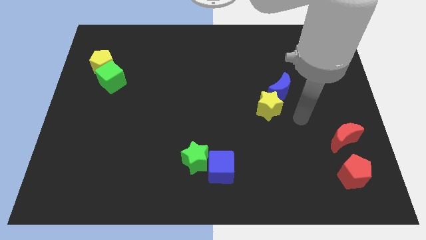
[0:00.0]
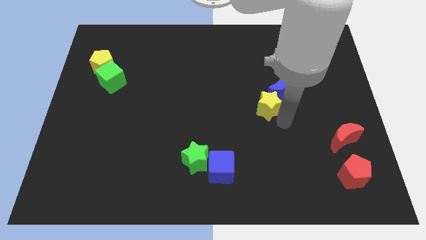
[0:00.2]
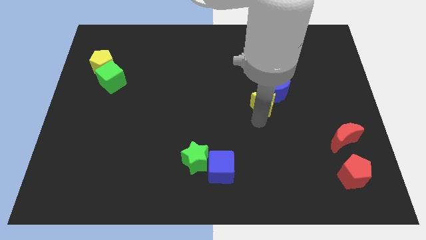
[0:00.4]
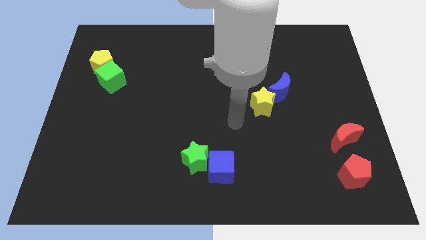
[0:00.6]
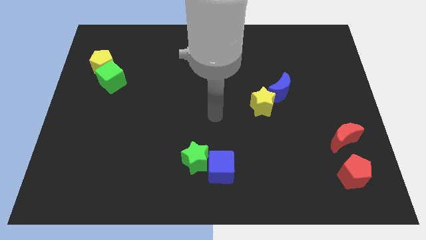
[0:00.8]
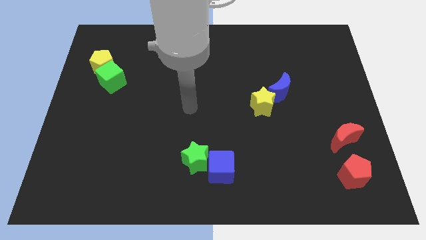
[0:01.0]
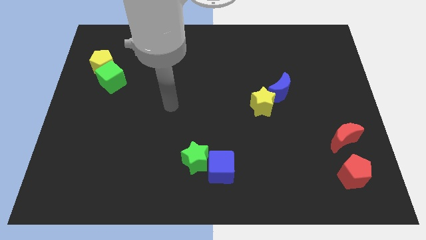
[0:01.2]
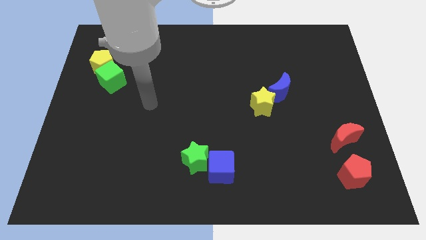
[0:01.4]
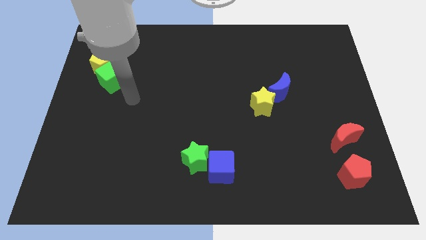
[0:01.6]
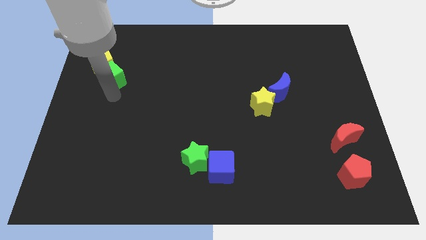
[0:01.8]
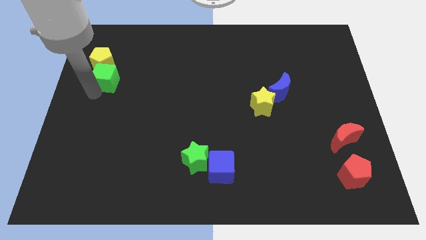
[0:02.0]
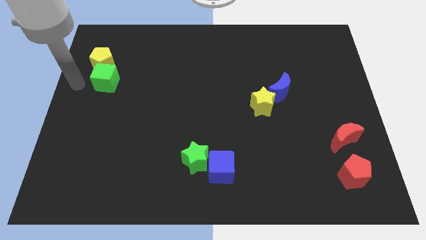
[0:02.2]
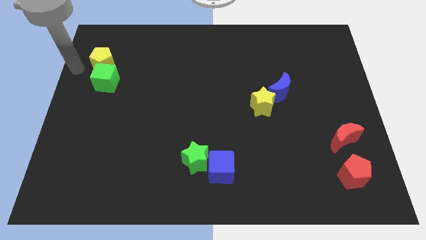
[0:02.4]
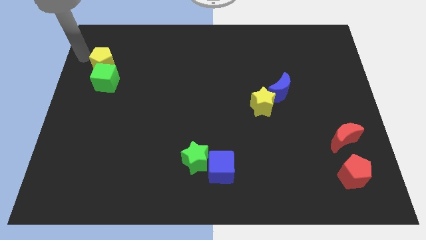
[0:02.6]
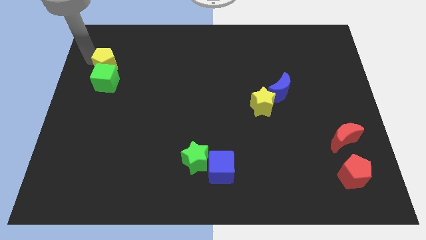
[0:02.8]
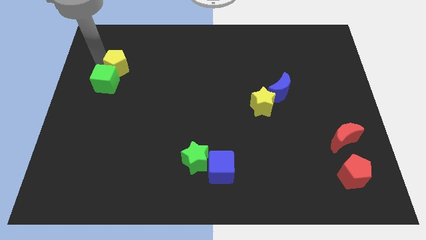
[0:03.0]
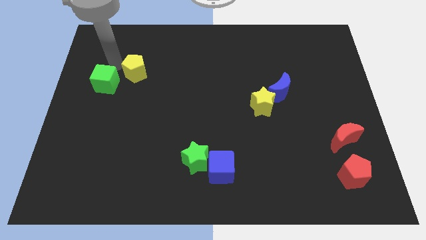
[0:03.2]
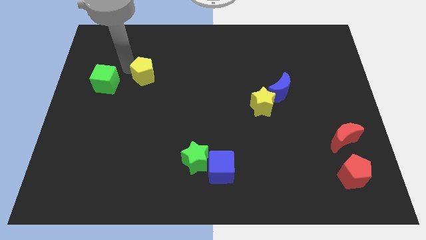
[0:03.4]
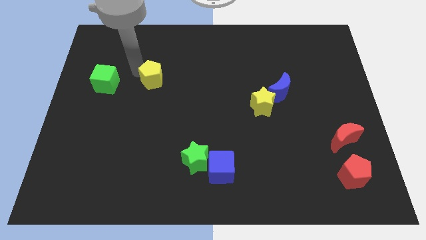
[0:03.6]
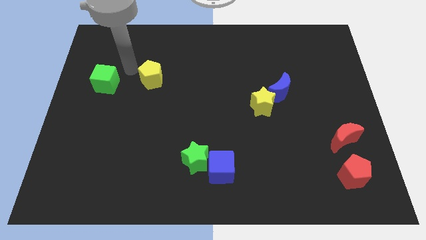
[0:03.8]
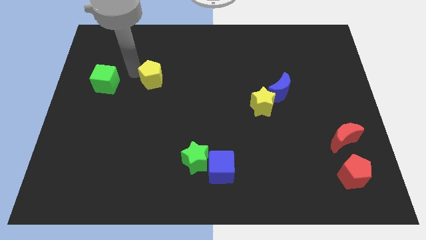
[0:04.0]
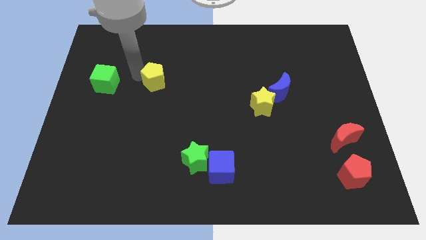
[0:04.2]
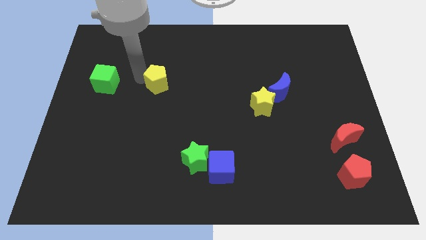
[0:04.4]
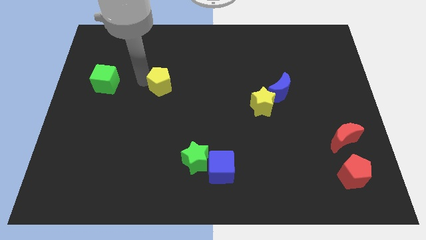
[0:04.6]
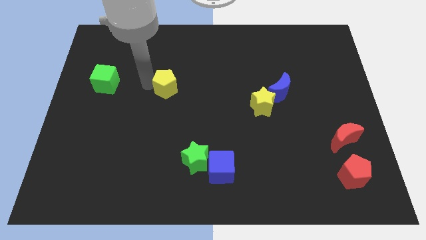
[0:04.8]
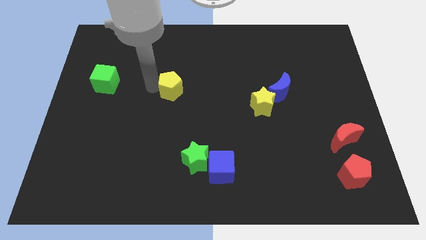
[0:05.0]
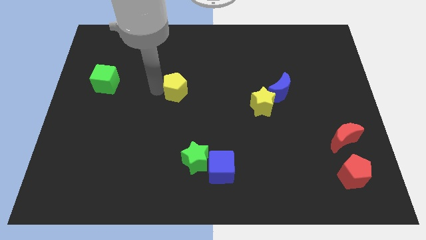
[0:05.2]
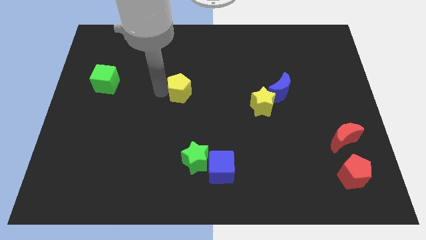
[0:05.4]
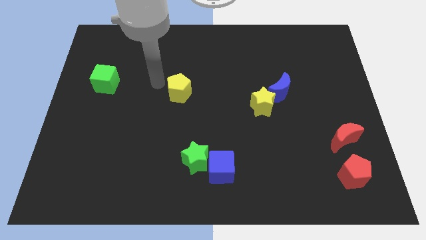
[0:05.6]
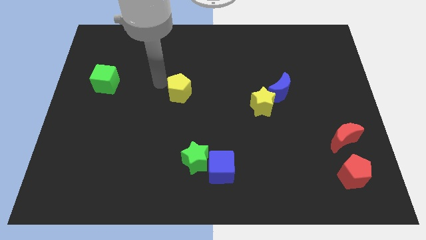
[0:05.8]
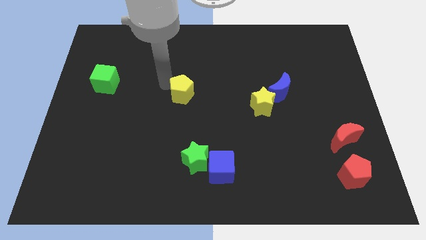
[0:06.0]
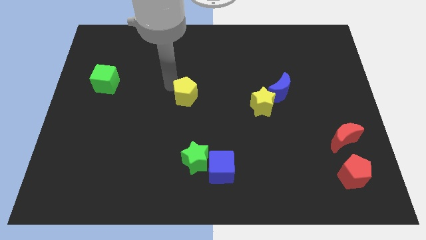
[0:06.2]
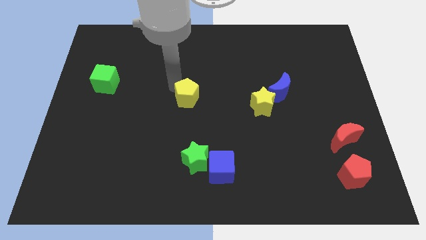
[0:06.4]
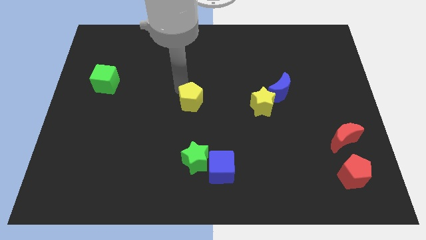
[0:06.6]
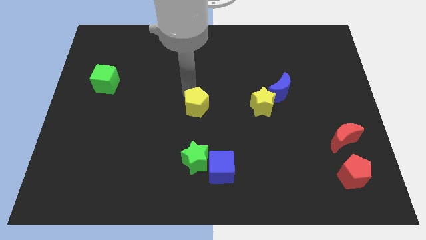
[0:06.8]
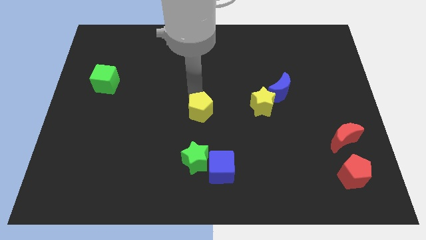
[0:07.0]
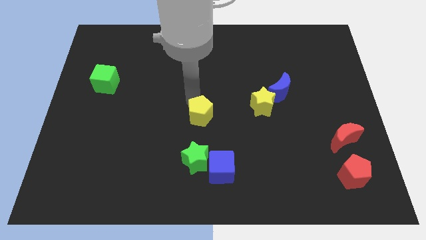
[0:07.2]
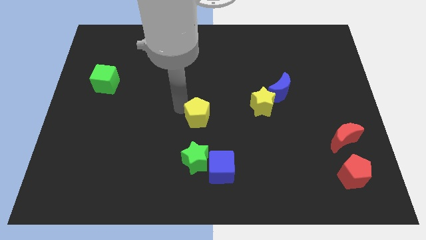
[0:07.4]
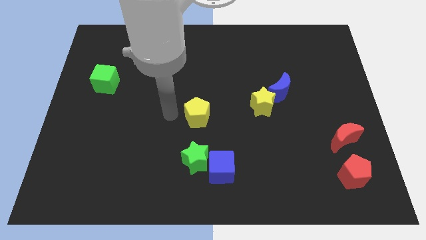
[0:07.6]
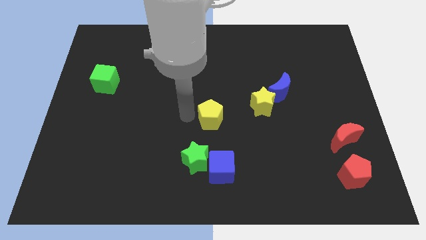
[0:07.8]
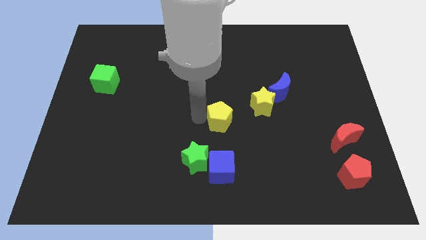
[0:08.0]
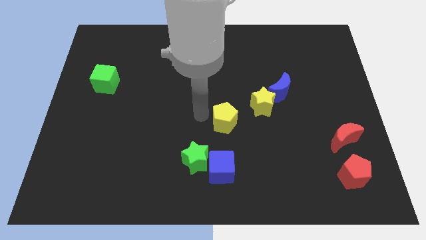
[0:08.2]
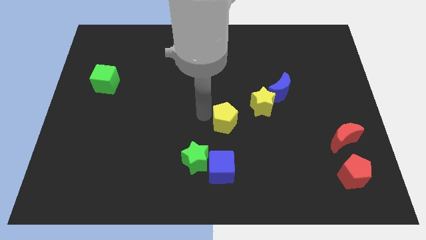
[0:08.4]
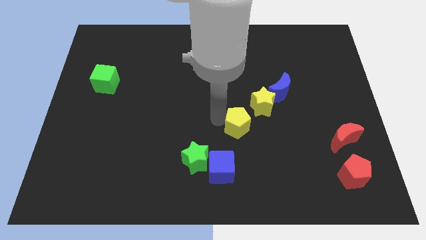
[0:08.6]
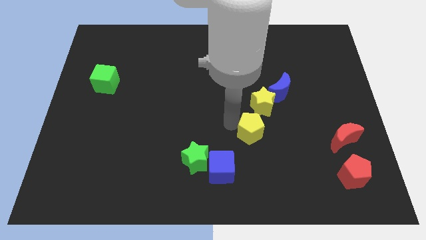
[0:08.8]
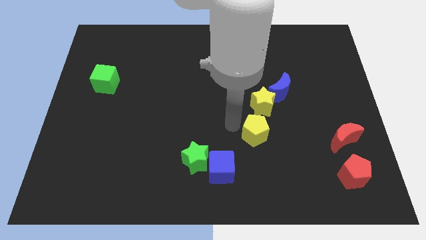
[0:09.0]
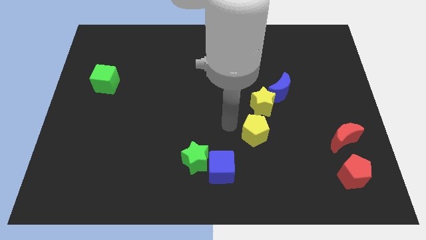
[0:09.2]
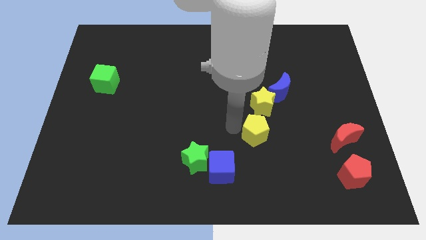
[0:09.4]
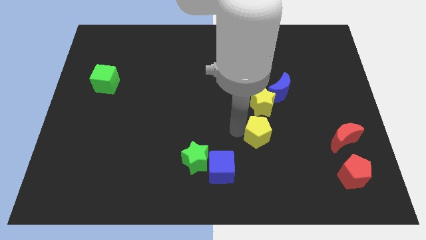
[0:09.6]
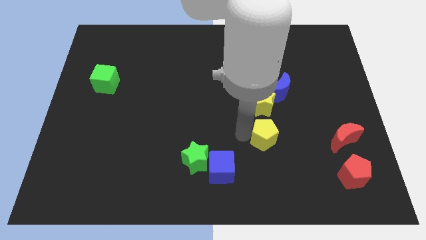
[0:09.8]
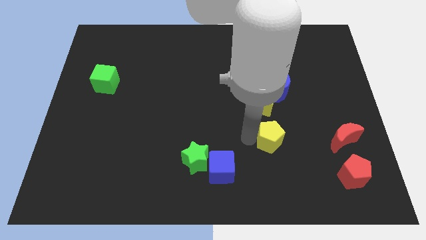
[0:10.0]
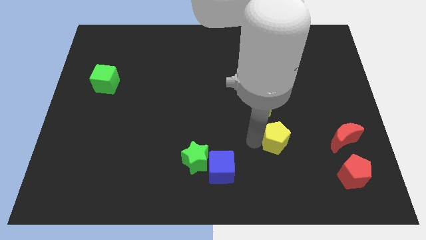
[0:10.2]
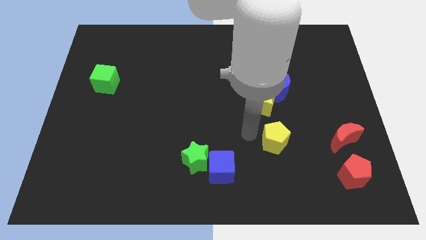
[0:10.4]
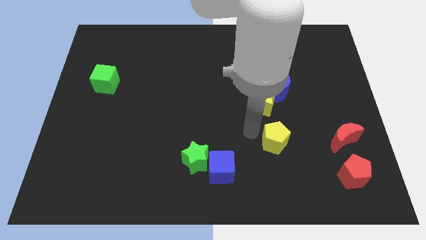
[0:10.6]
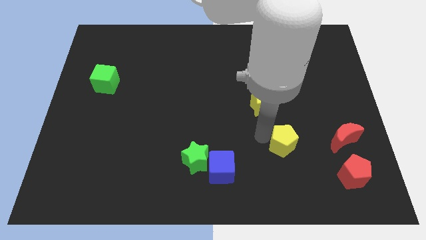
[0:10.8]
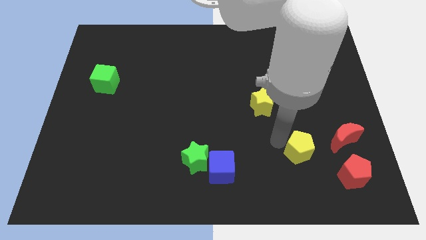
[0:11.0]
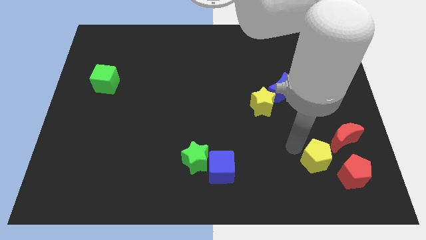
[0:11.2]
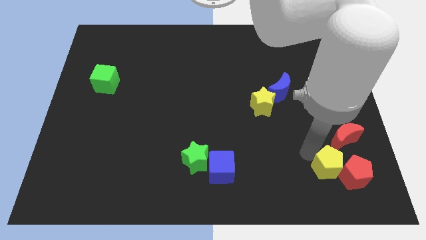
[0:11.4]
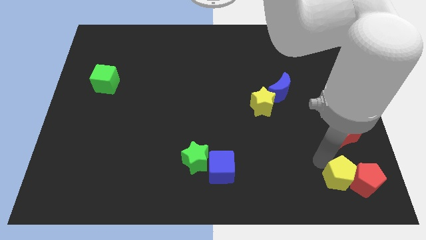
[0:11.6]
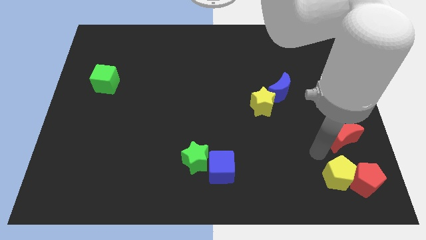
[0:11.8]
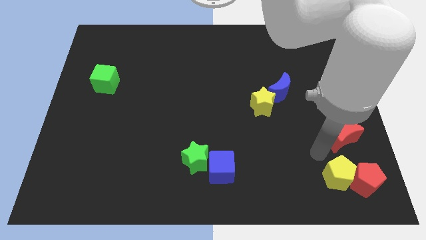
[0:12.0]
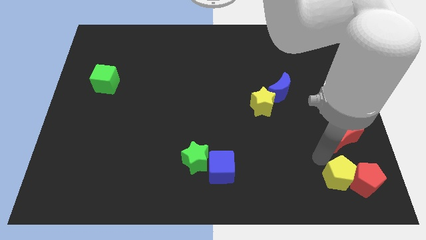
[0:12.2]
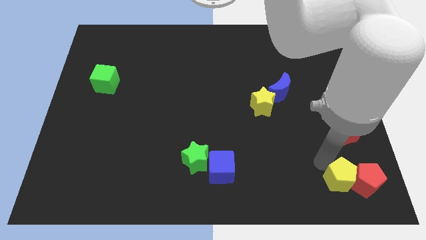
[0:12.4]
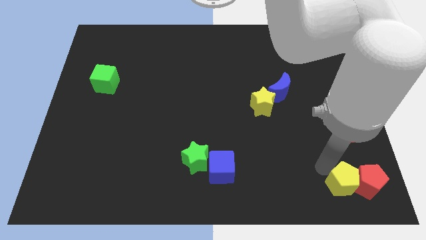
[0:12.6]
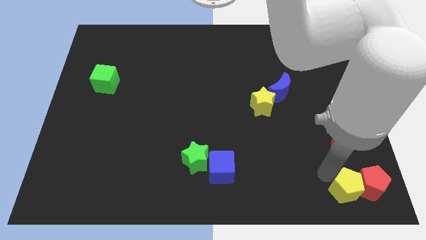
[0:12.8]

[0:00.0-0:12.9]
move the yellow pentagon to the lower right corner
